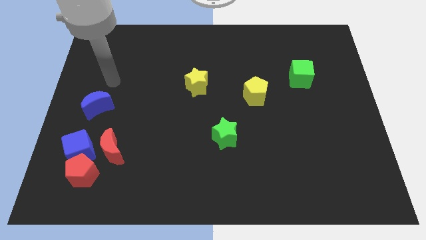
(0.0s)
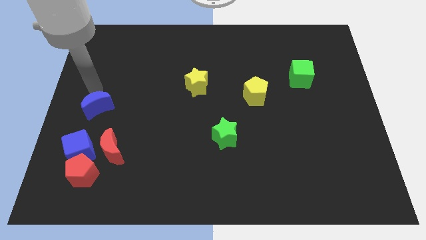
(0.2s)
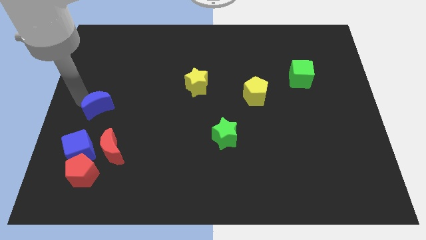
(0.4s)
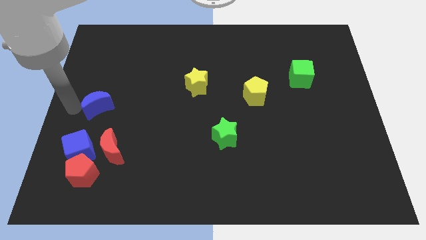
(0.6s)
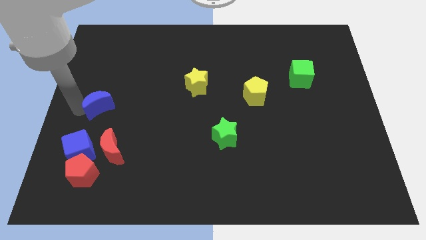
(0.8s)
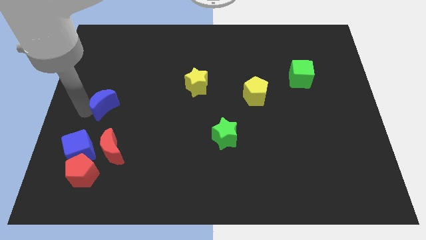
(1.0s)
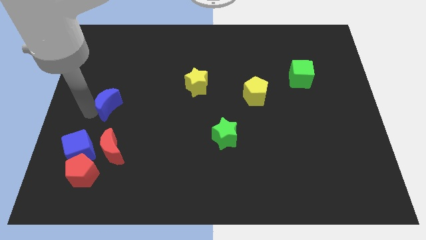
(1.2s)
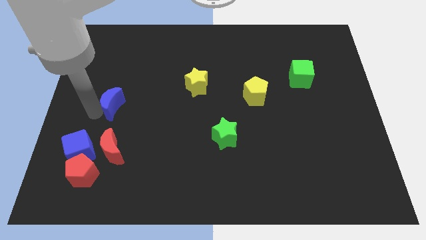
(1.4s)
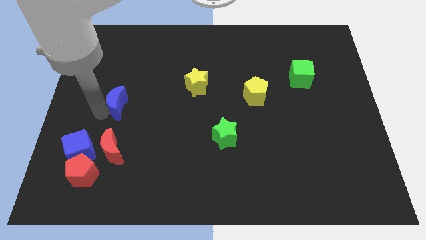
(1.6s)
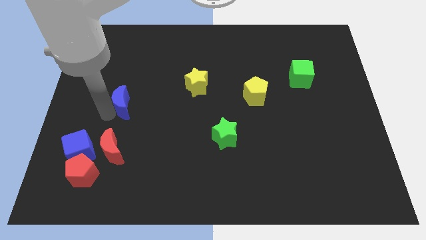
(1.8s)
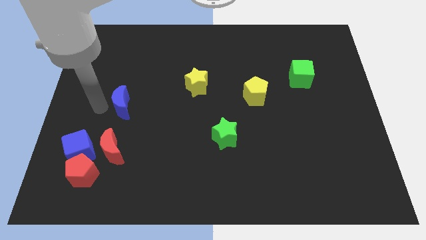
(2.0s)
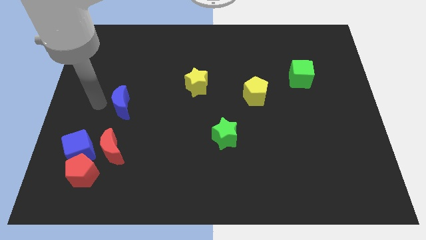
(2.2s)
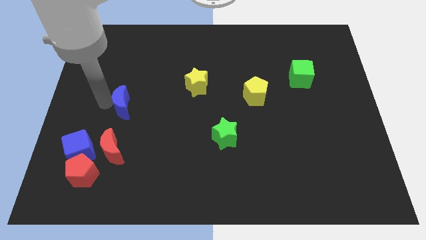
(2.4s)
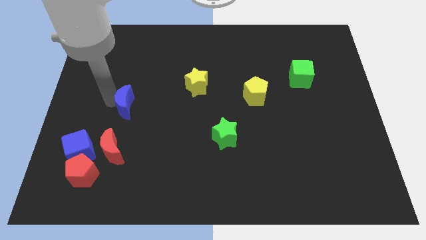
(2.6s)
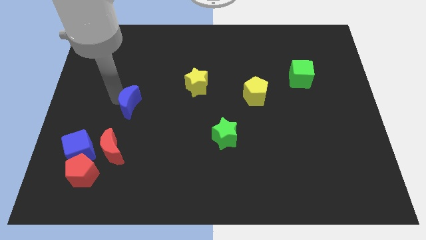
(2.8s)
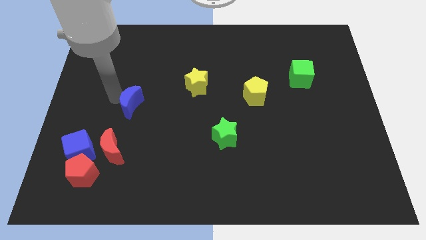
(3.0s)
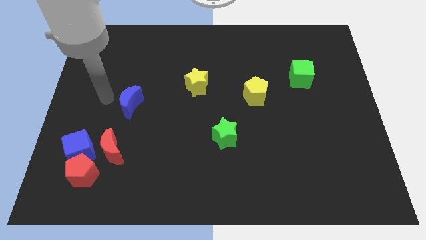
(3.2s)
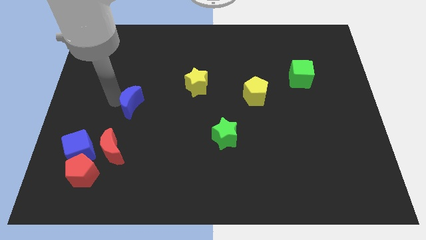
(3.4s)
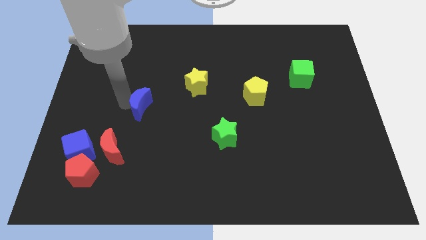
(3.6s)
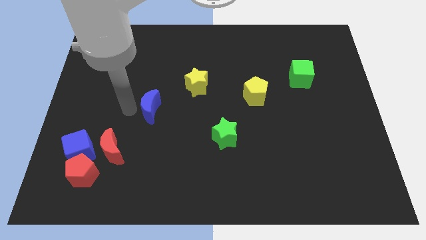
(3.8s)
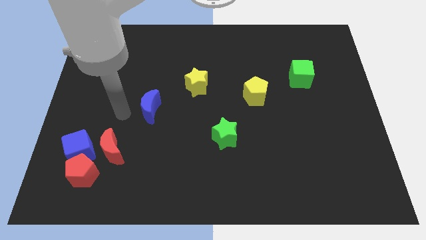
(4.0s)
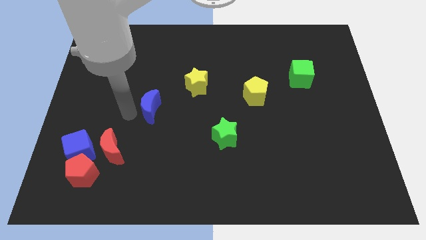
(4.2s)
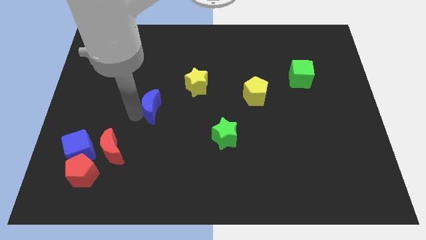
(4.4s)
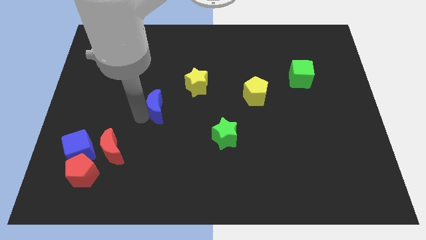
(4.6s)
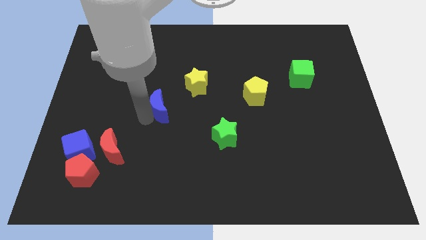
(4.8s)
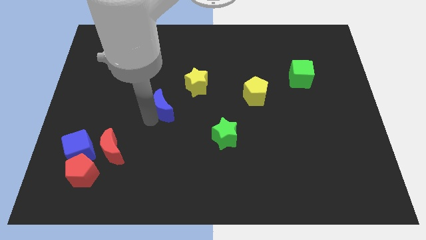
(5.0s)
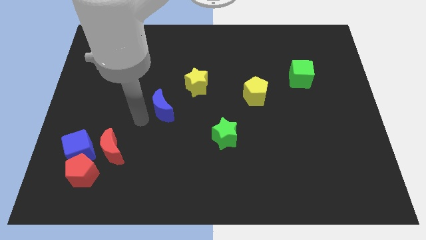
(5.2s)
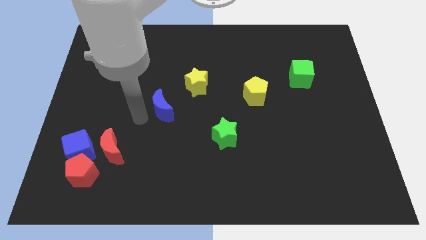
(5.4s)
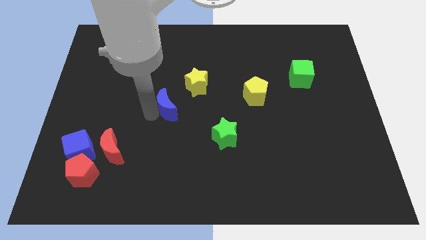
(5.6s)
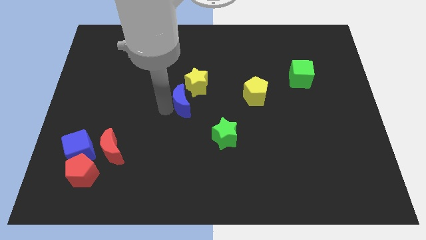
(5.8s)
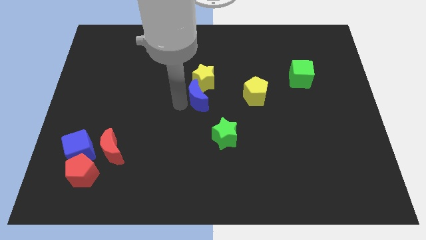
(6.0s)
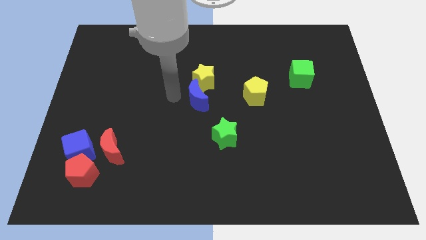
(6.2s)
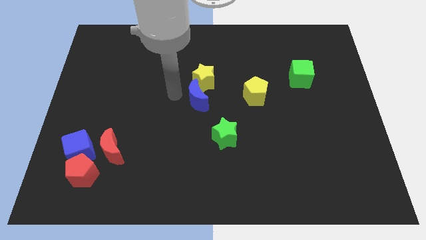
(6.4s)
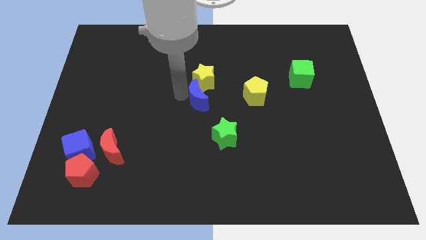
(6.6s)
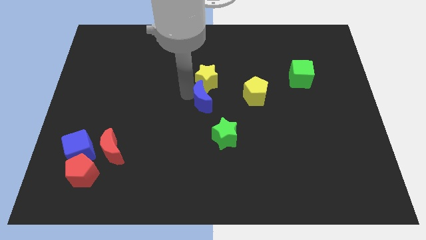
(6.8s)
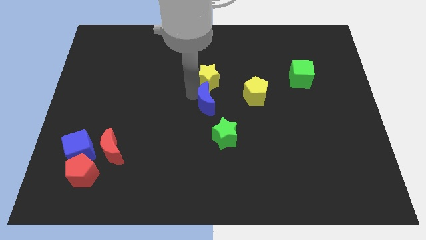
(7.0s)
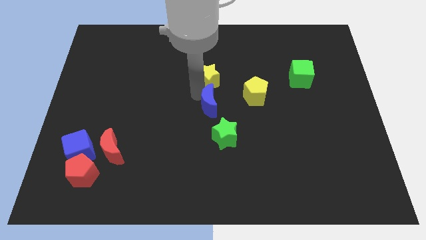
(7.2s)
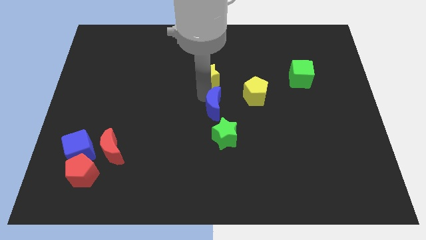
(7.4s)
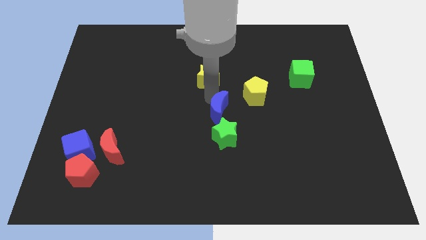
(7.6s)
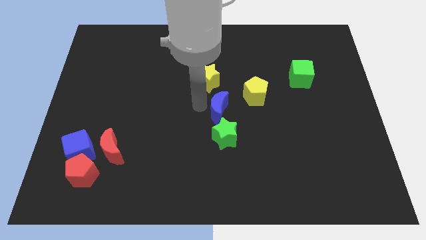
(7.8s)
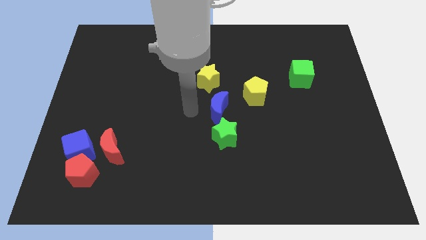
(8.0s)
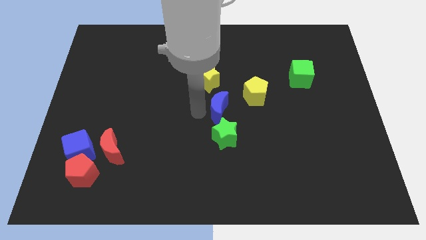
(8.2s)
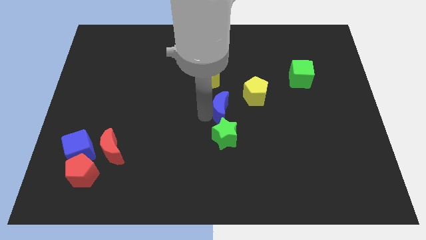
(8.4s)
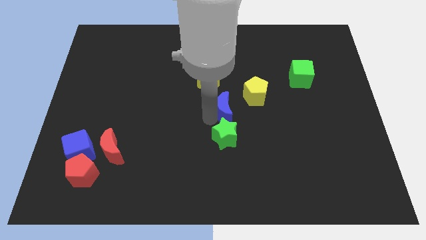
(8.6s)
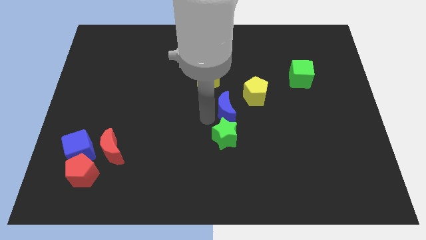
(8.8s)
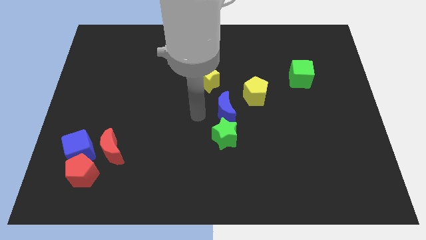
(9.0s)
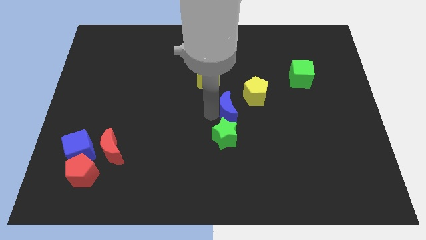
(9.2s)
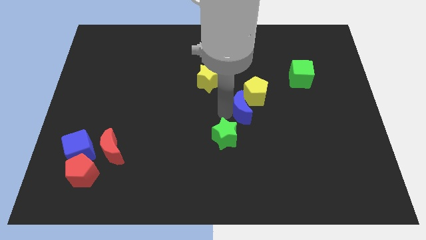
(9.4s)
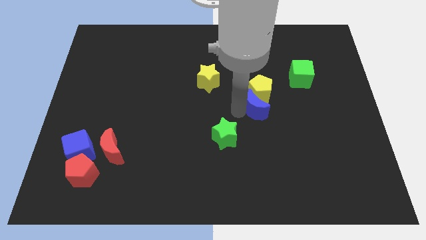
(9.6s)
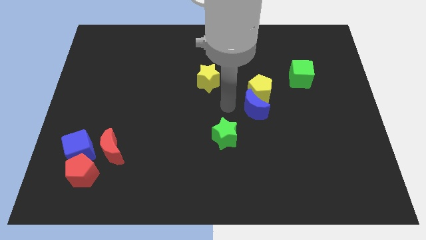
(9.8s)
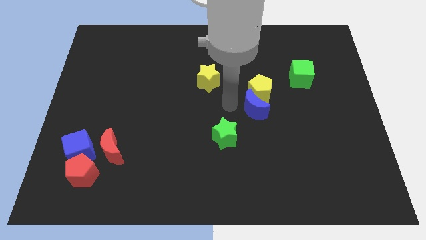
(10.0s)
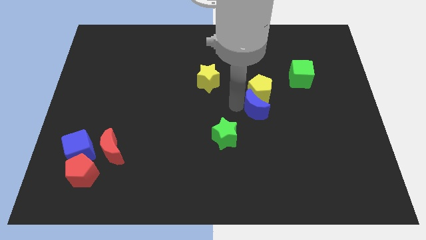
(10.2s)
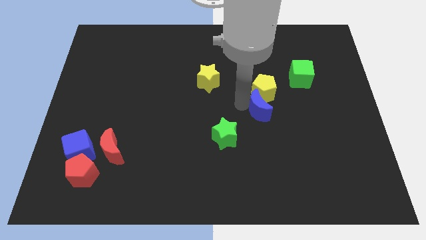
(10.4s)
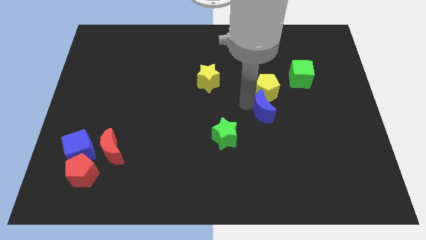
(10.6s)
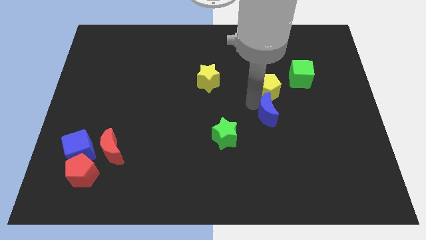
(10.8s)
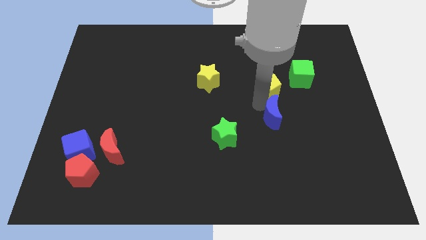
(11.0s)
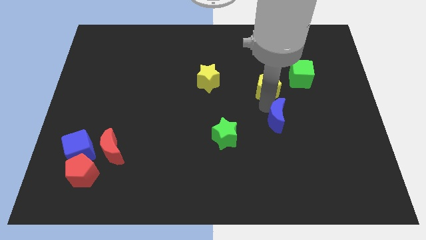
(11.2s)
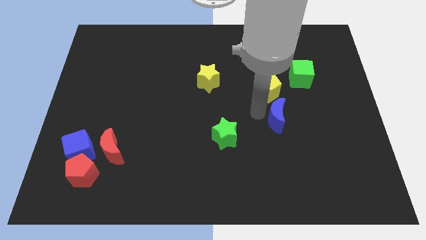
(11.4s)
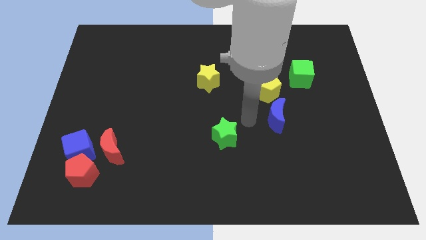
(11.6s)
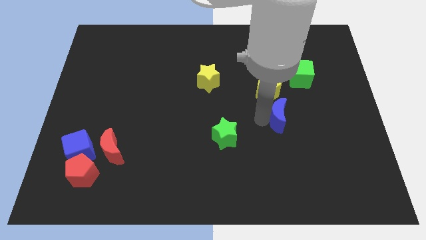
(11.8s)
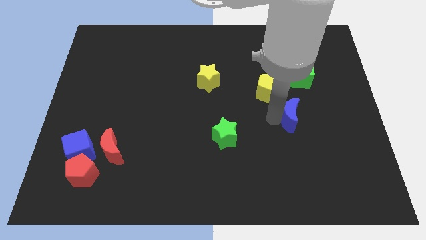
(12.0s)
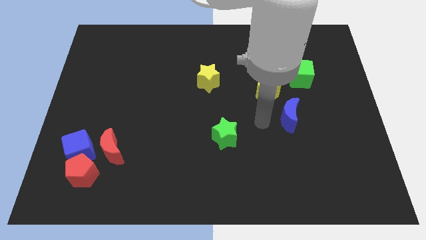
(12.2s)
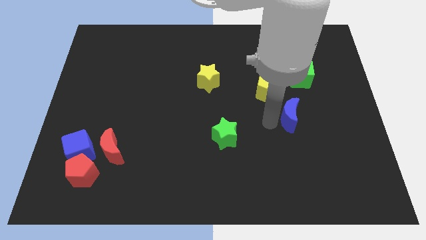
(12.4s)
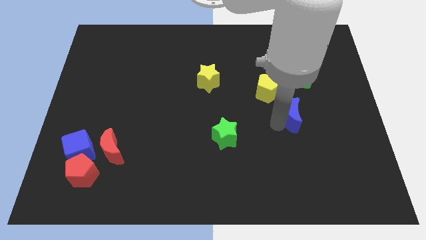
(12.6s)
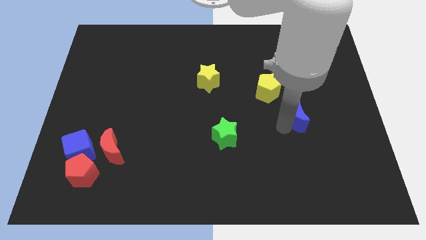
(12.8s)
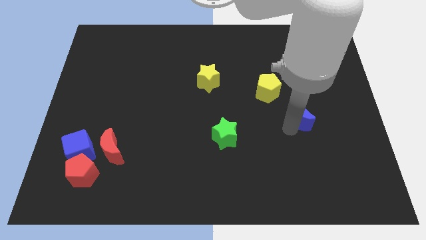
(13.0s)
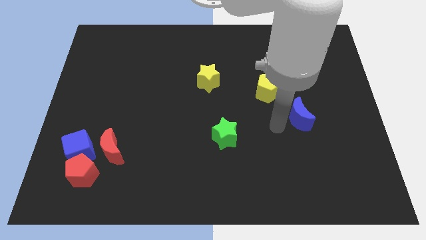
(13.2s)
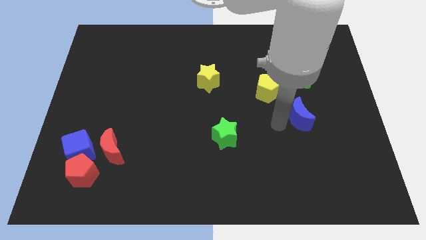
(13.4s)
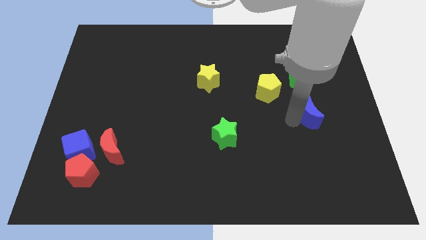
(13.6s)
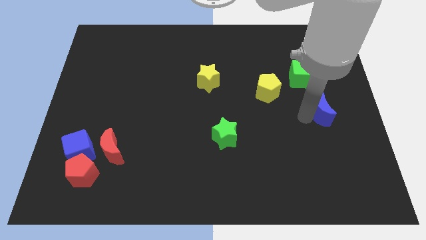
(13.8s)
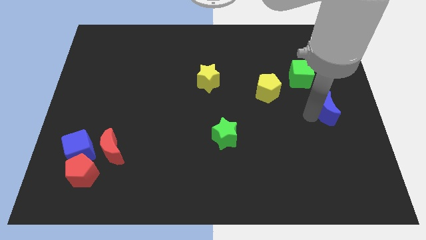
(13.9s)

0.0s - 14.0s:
put the blue moon to the right side of the board
